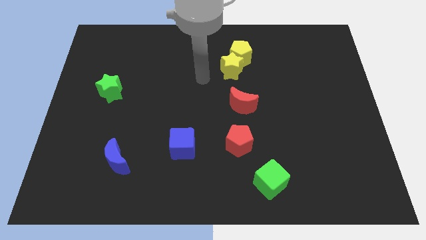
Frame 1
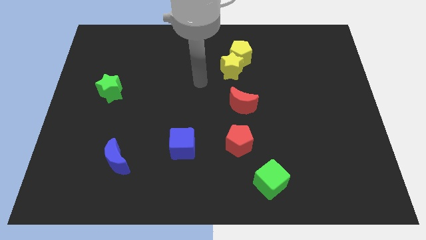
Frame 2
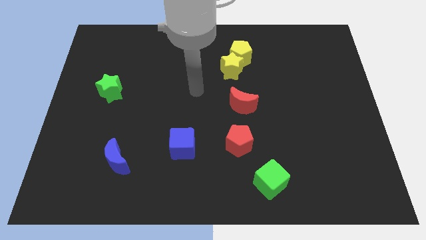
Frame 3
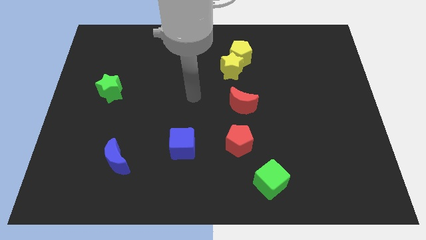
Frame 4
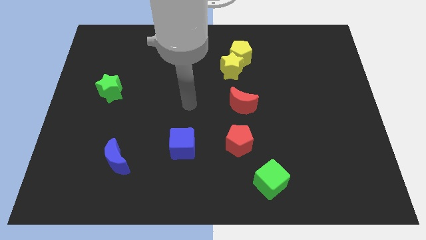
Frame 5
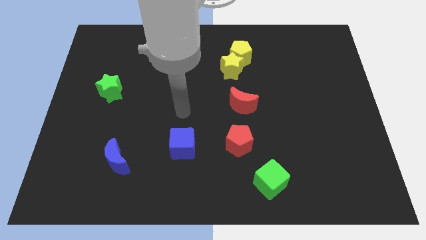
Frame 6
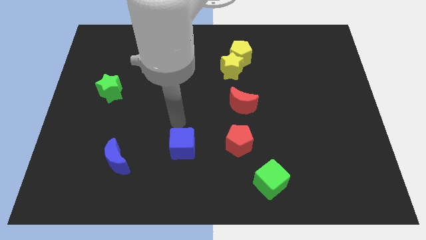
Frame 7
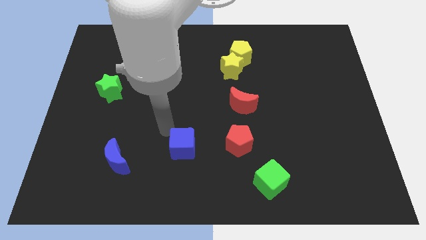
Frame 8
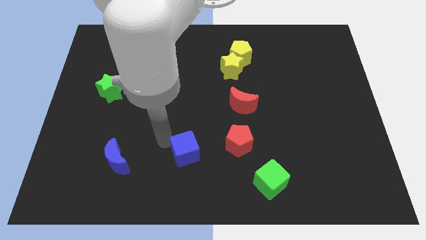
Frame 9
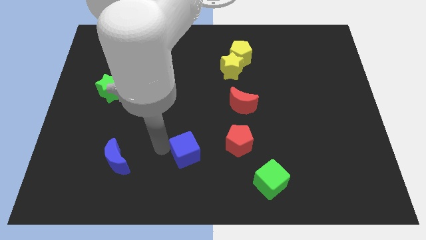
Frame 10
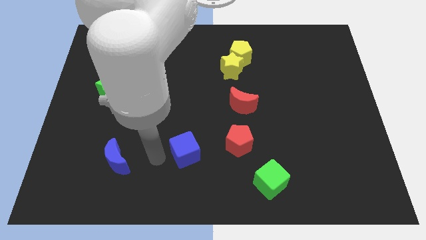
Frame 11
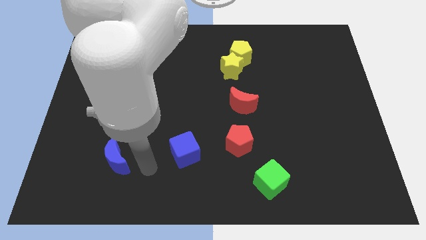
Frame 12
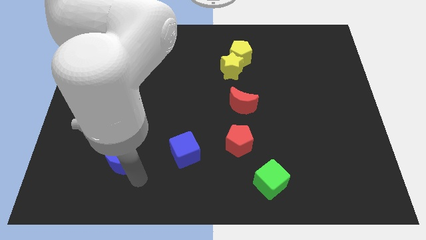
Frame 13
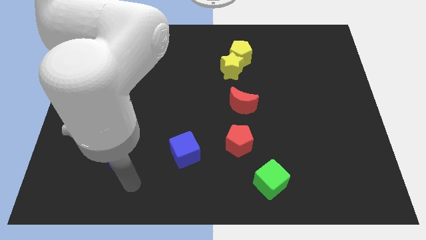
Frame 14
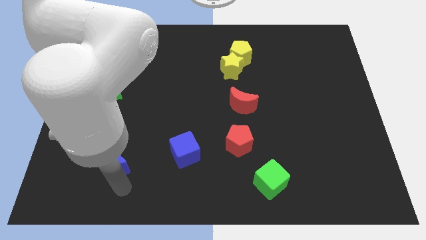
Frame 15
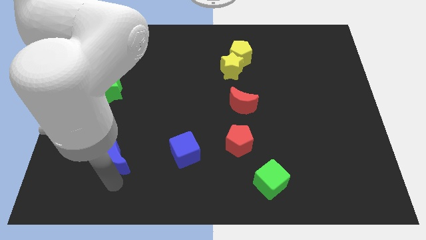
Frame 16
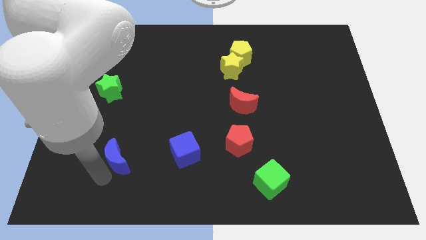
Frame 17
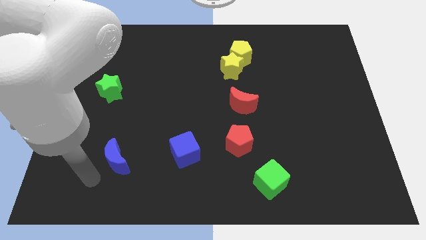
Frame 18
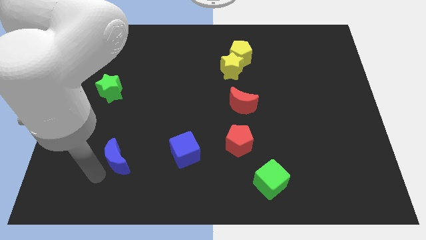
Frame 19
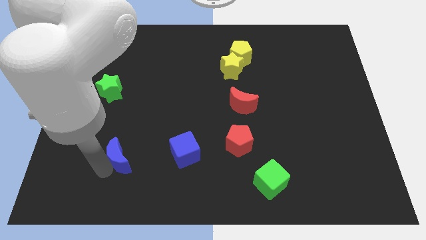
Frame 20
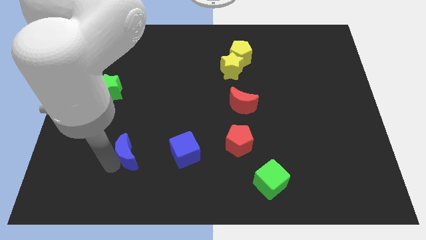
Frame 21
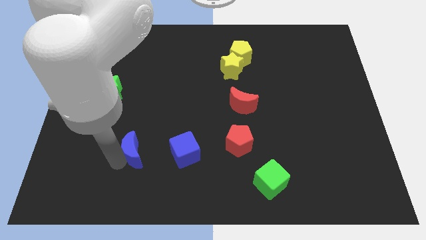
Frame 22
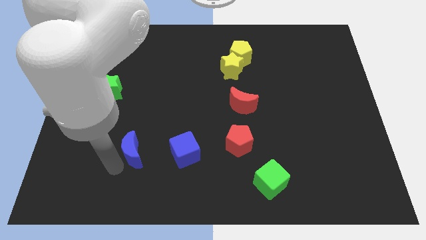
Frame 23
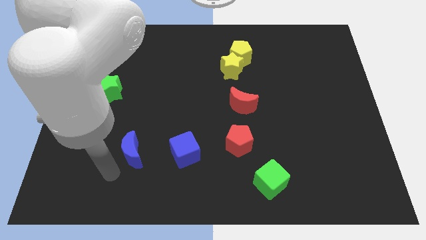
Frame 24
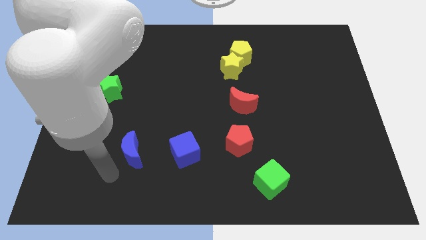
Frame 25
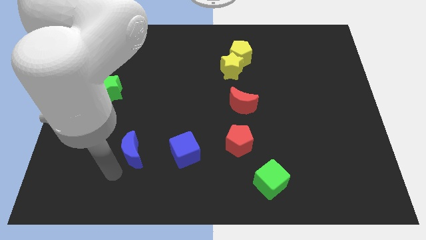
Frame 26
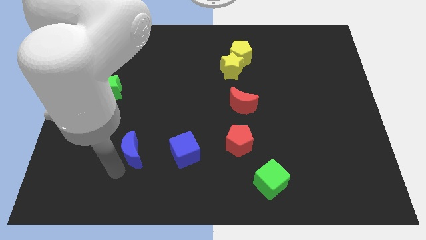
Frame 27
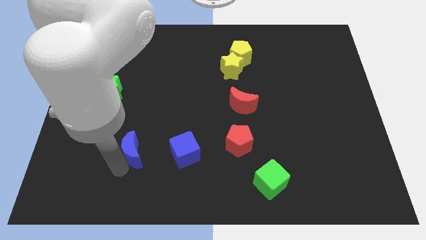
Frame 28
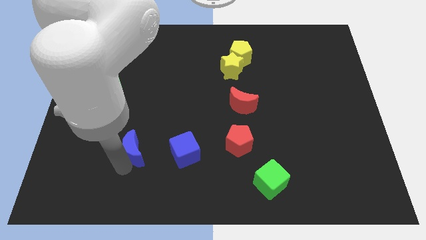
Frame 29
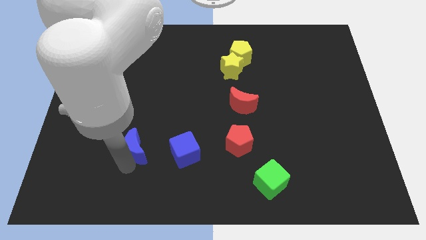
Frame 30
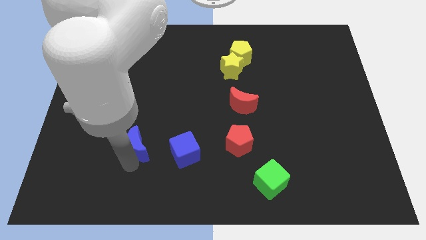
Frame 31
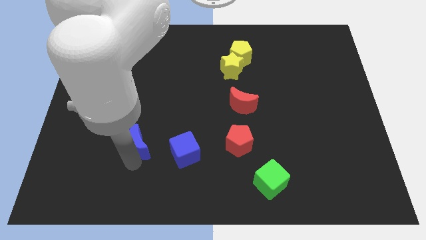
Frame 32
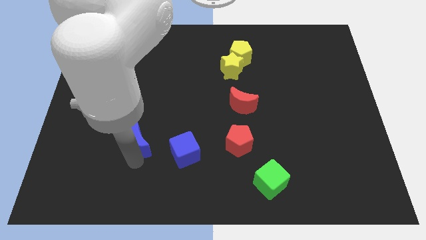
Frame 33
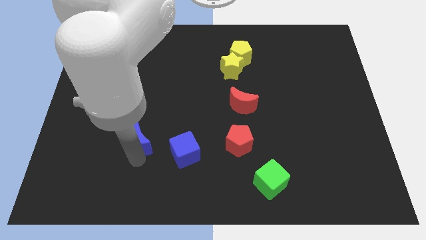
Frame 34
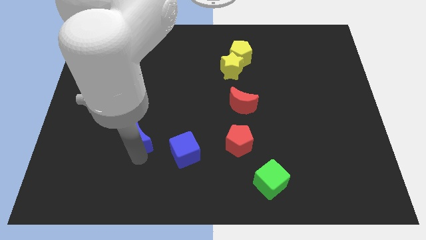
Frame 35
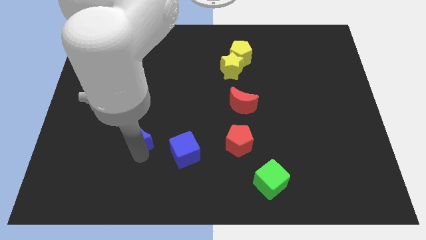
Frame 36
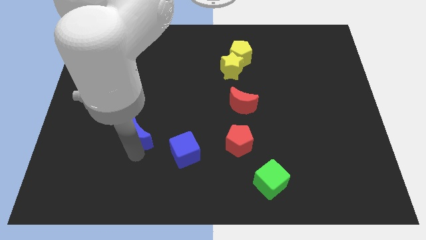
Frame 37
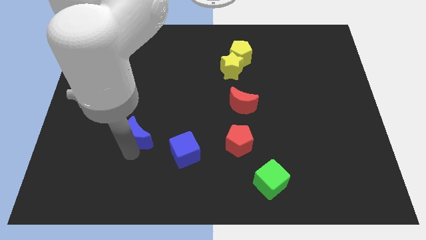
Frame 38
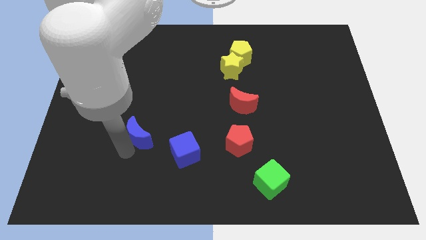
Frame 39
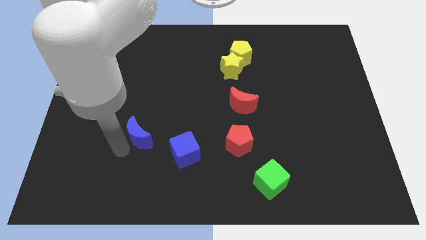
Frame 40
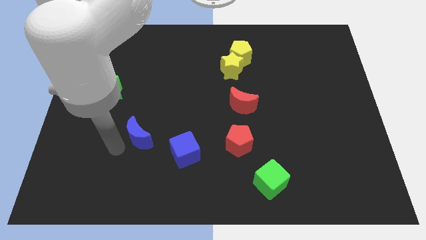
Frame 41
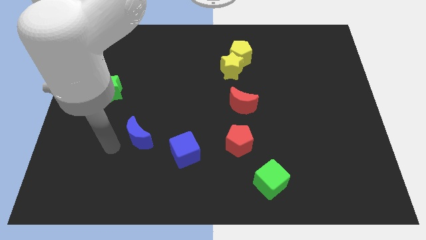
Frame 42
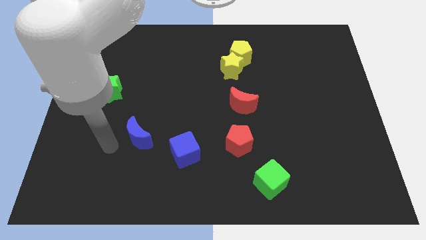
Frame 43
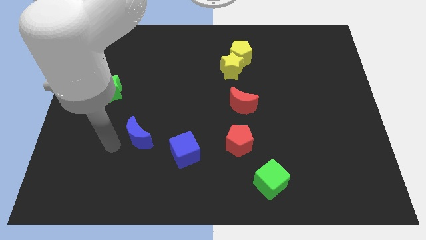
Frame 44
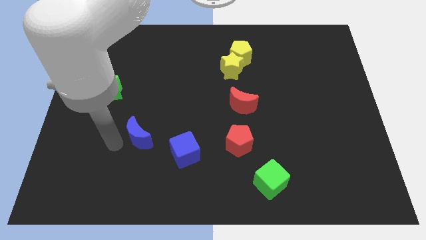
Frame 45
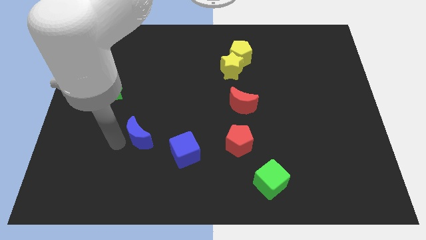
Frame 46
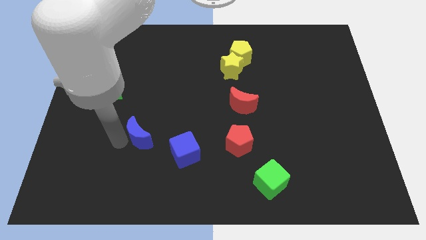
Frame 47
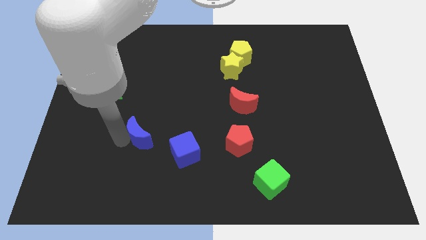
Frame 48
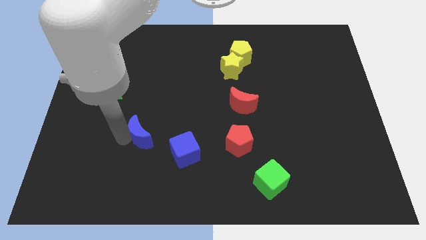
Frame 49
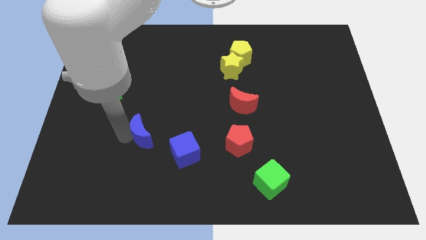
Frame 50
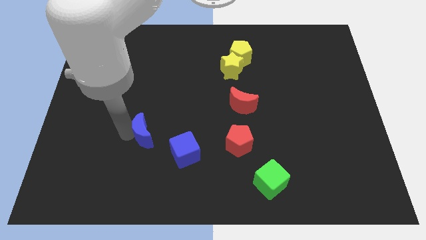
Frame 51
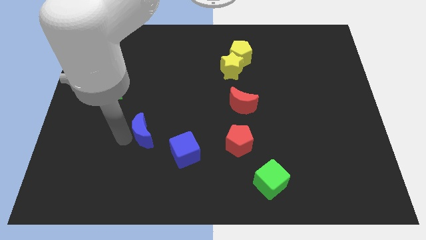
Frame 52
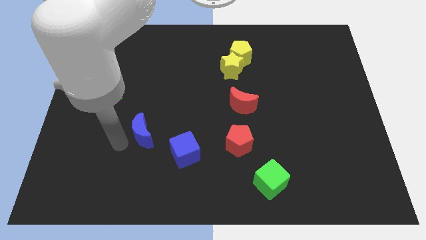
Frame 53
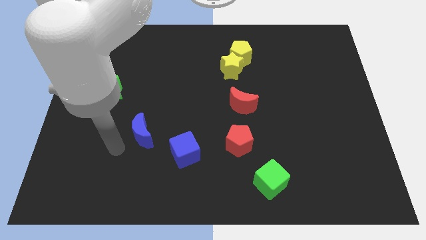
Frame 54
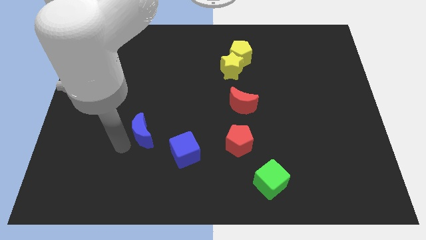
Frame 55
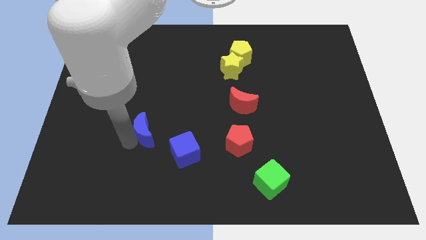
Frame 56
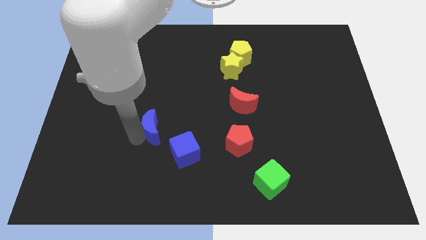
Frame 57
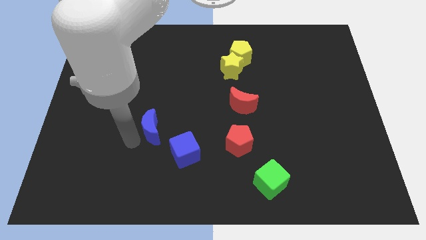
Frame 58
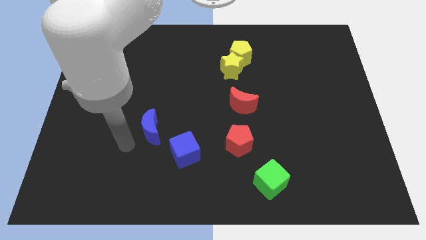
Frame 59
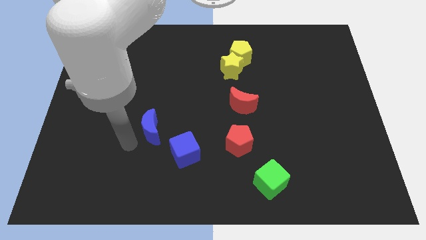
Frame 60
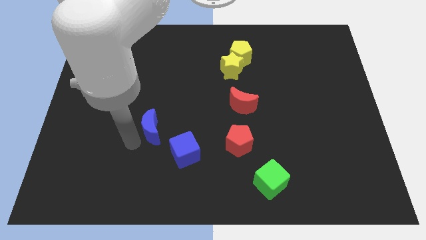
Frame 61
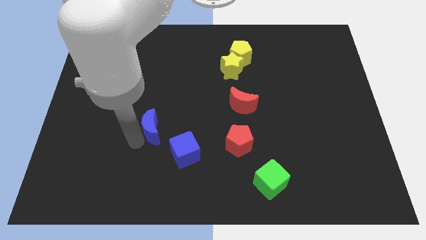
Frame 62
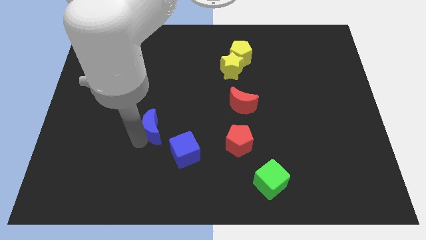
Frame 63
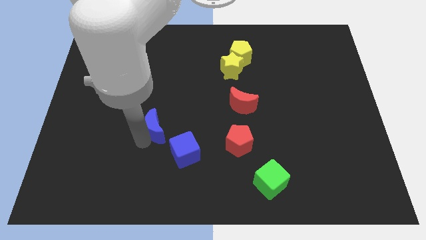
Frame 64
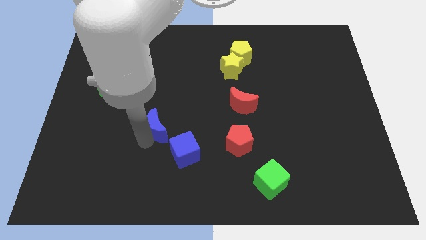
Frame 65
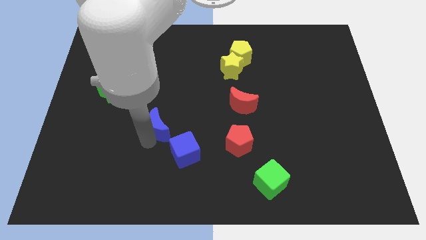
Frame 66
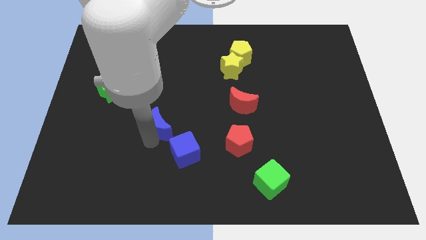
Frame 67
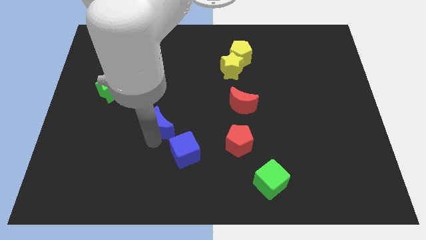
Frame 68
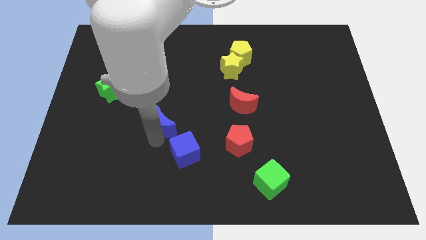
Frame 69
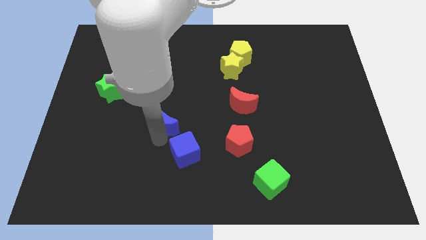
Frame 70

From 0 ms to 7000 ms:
move the blue moon above the blue cube

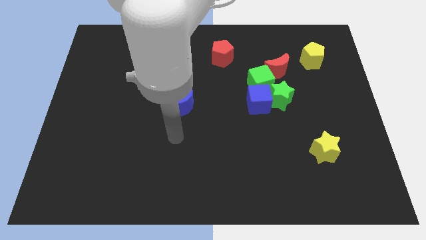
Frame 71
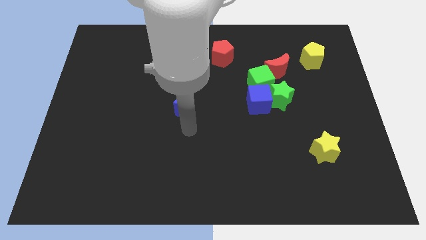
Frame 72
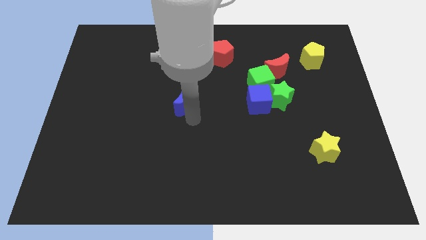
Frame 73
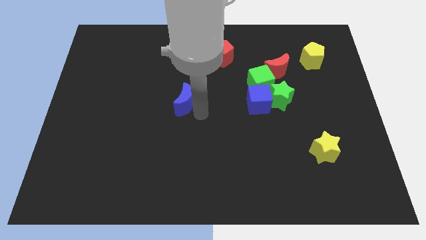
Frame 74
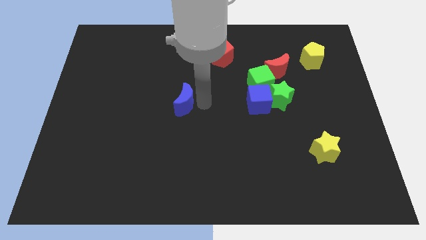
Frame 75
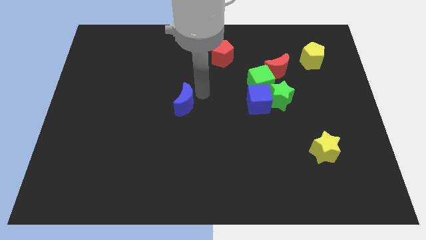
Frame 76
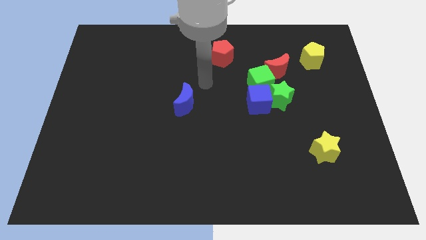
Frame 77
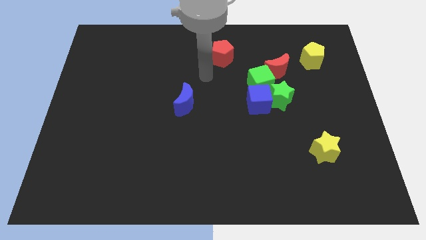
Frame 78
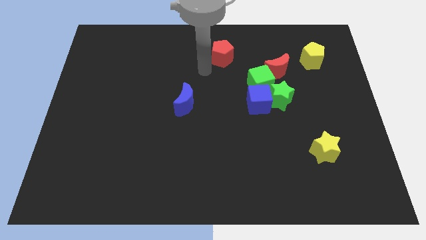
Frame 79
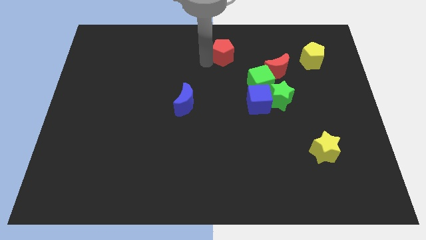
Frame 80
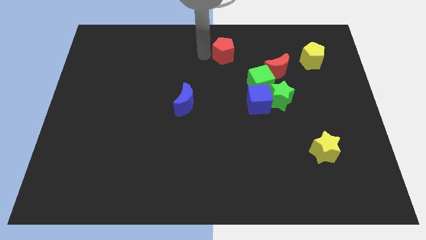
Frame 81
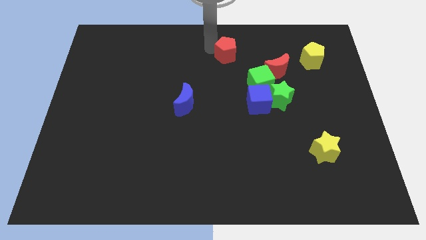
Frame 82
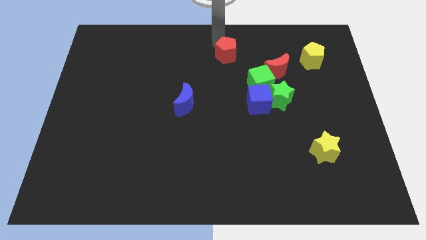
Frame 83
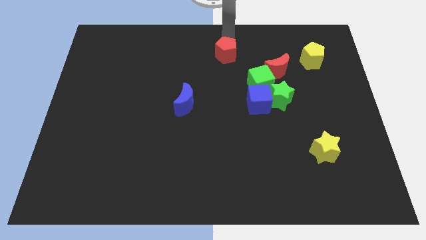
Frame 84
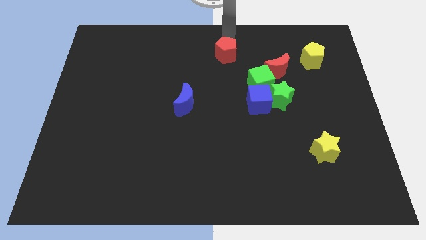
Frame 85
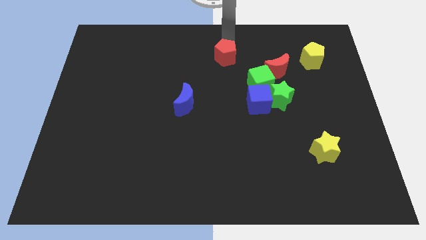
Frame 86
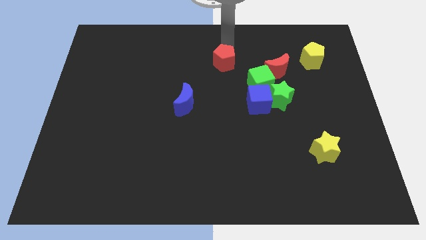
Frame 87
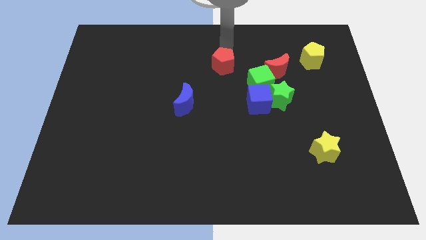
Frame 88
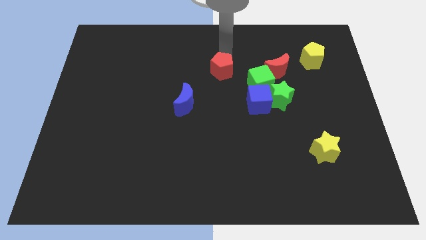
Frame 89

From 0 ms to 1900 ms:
push the red pentagon just left of the green cube
